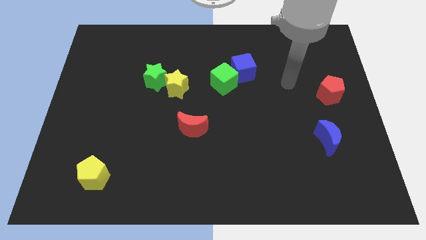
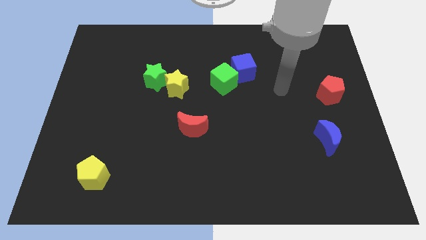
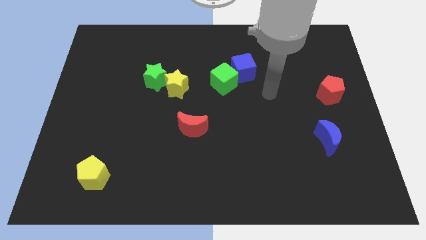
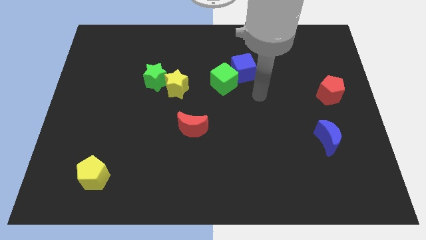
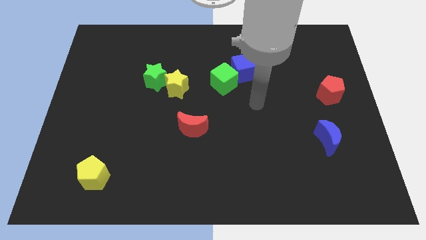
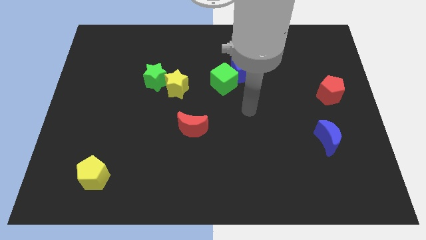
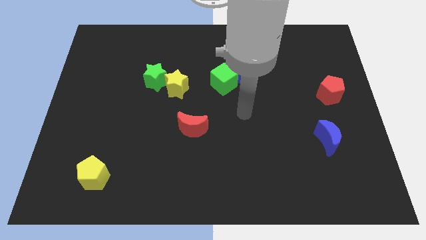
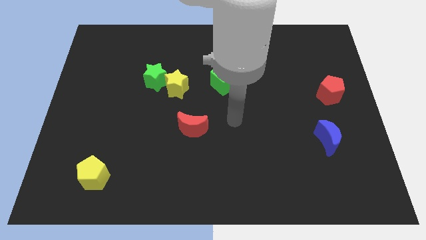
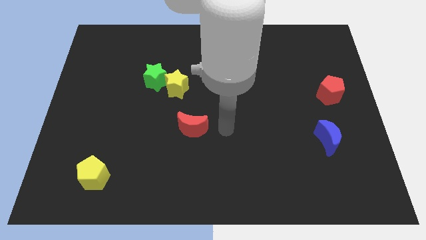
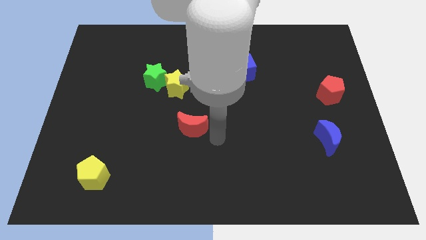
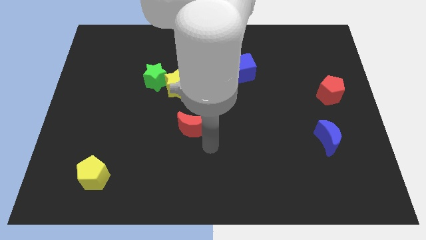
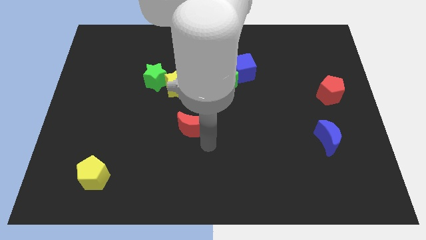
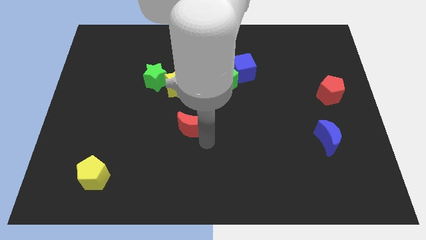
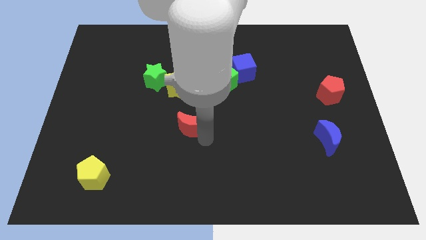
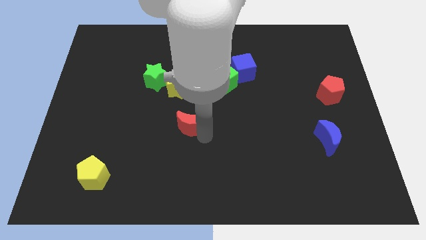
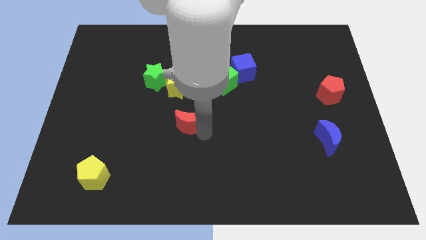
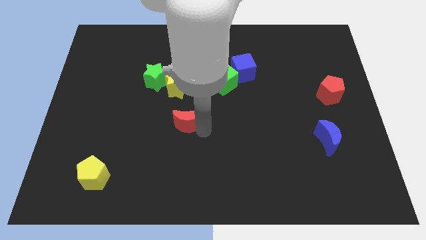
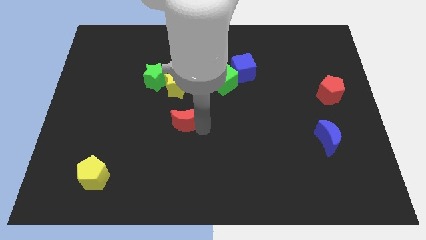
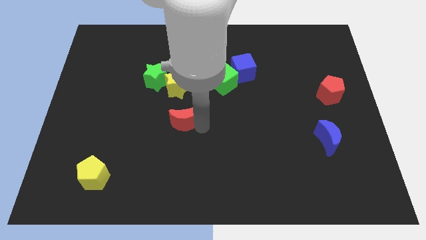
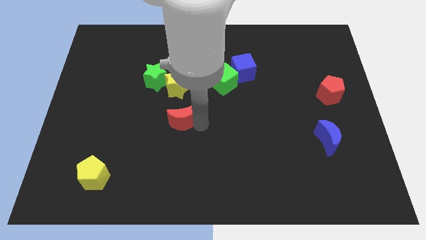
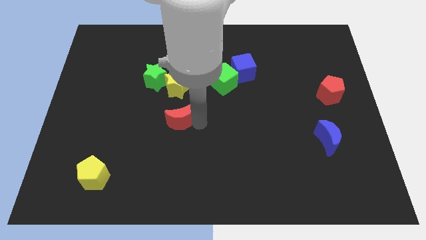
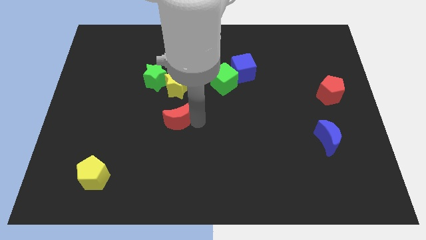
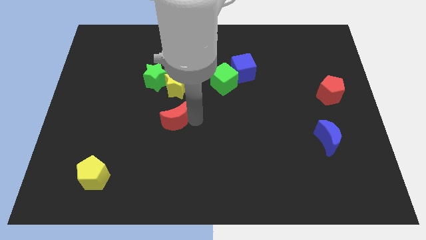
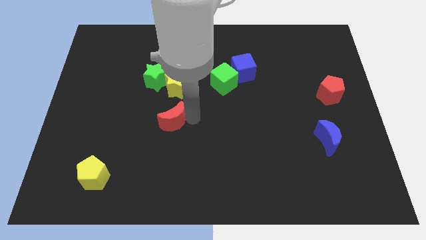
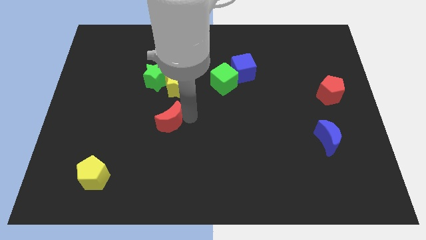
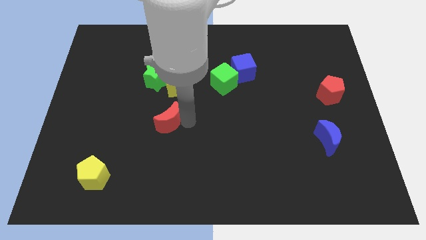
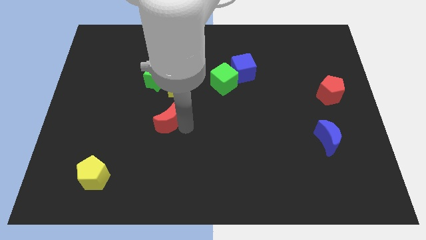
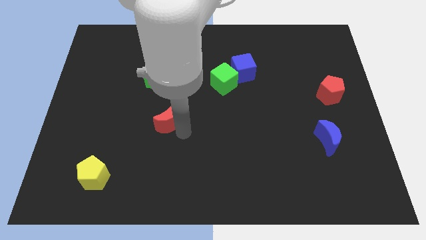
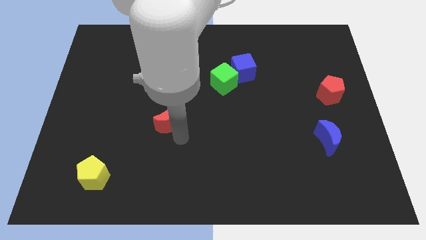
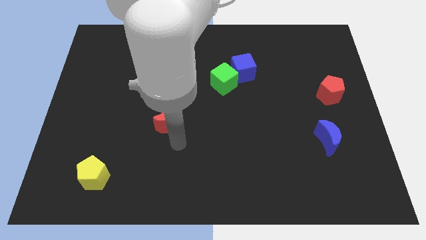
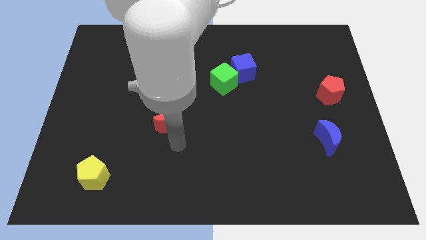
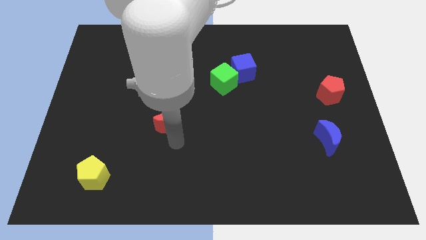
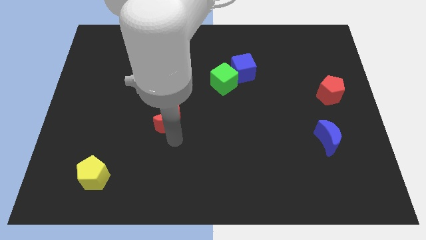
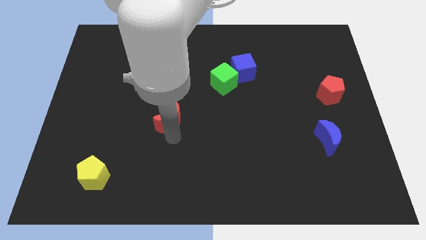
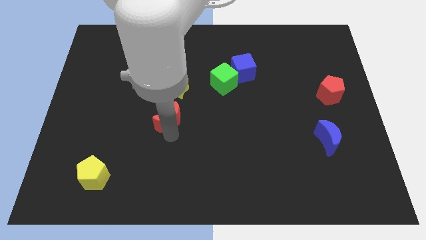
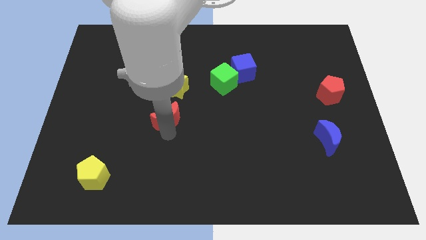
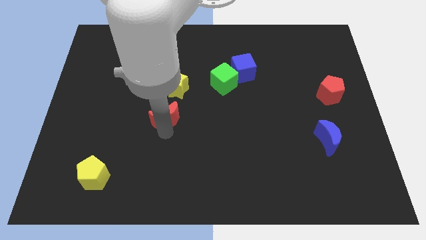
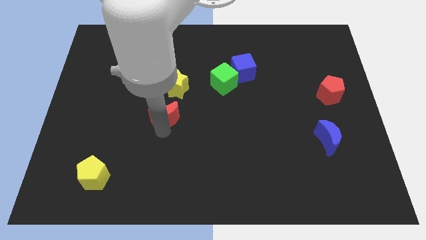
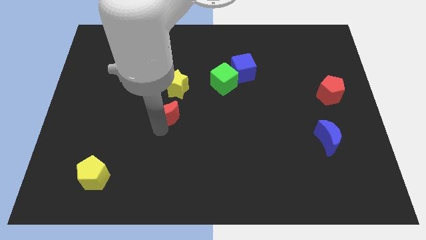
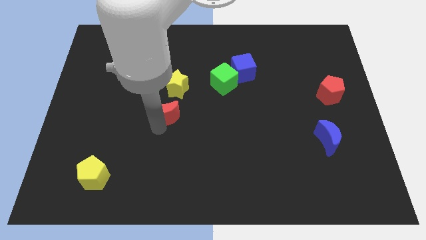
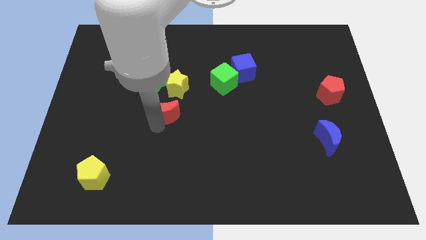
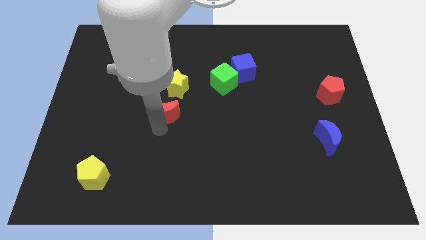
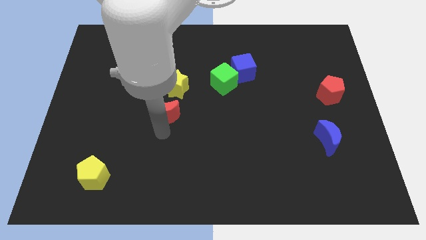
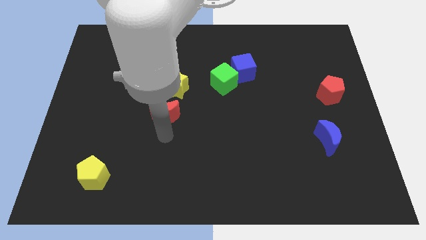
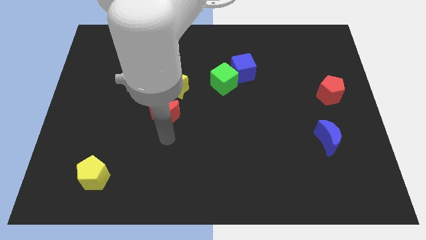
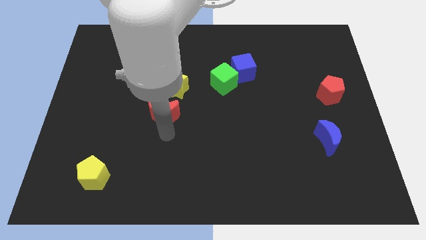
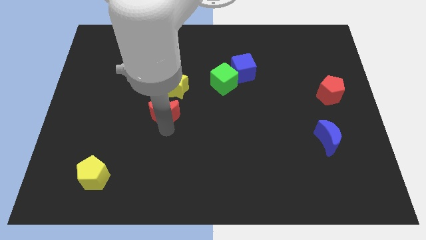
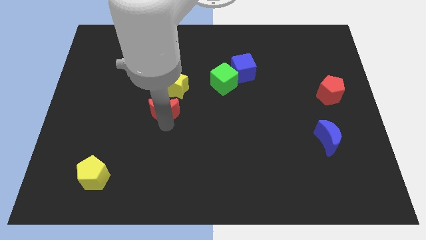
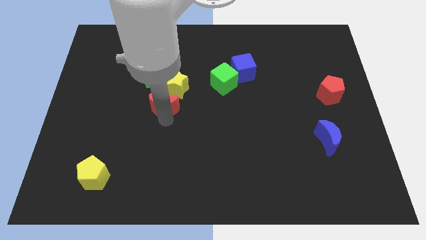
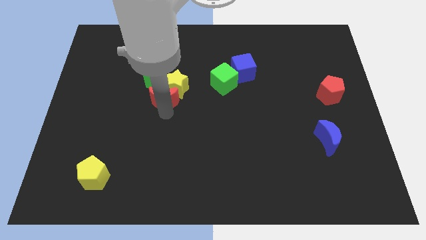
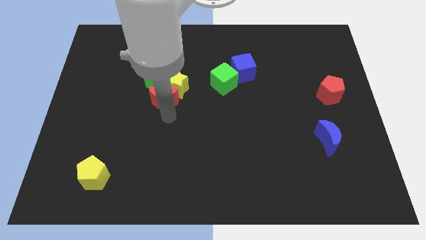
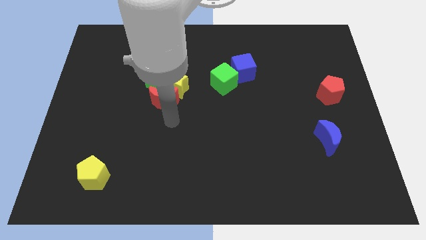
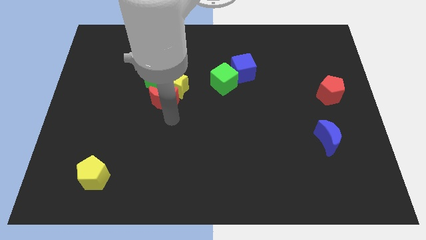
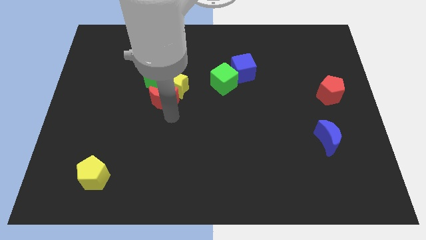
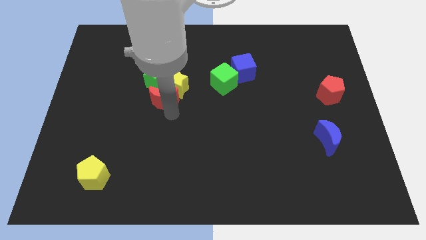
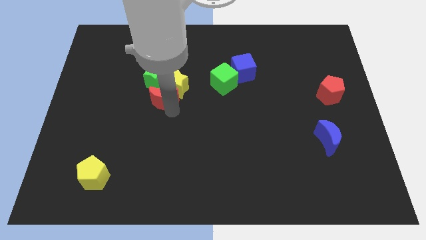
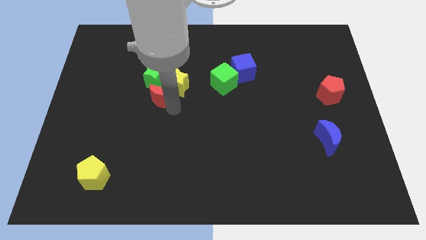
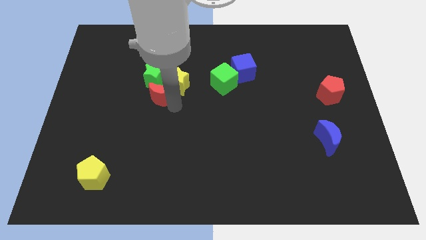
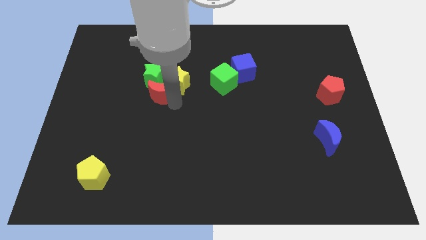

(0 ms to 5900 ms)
push the red moon close to the green star

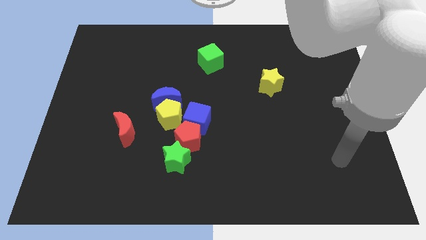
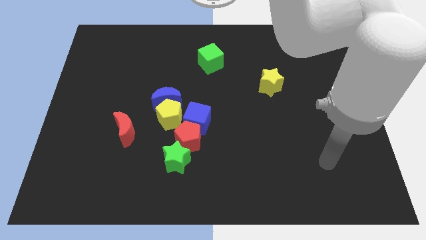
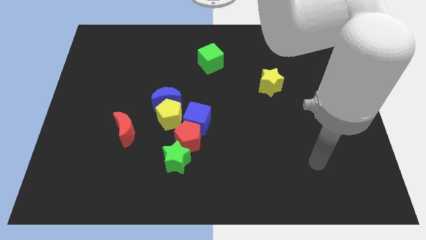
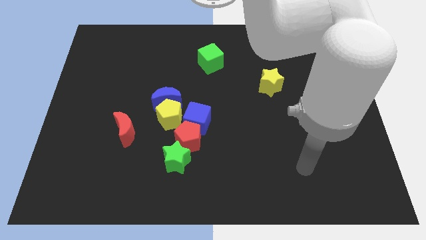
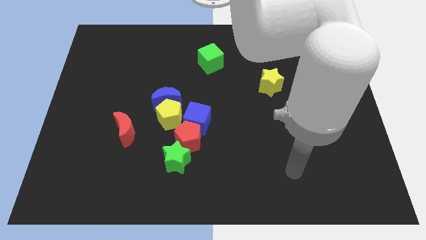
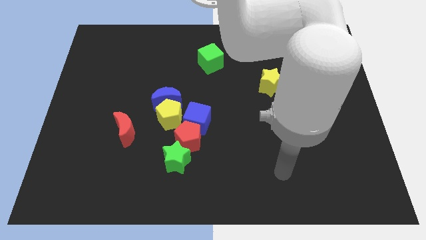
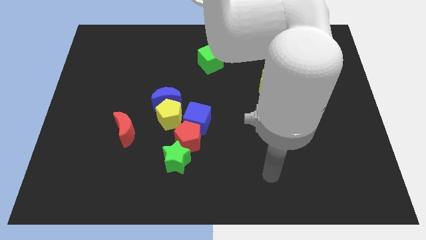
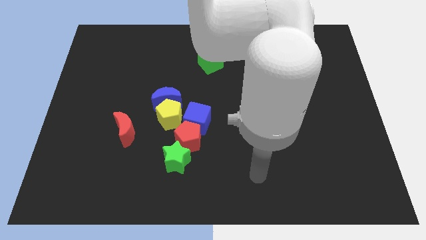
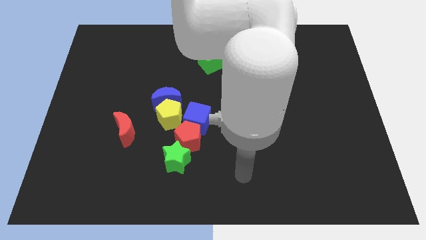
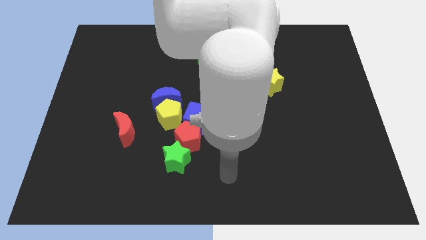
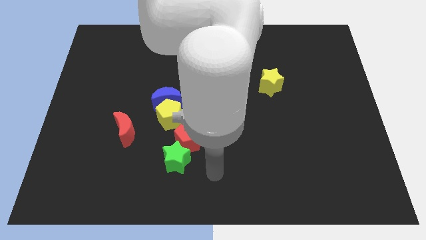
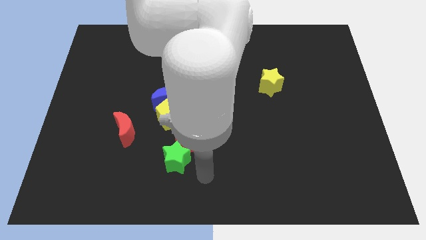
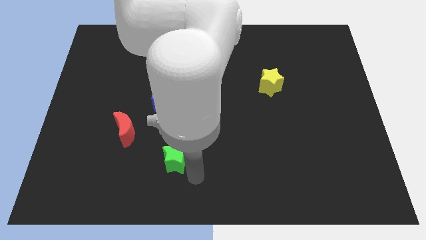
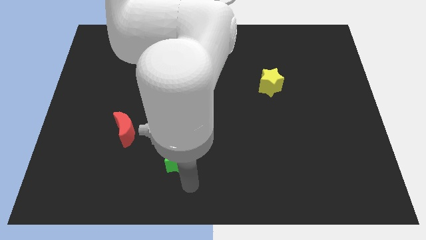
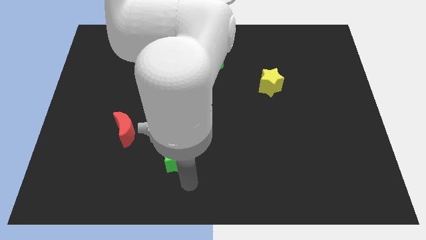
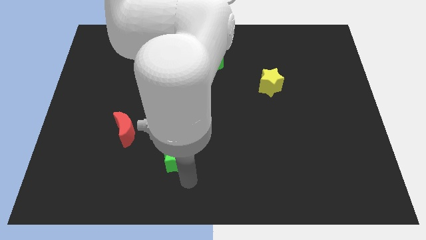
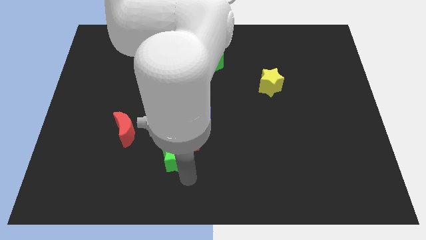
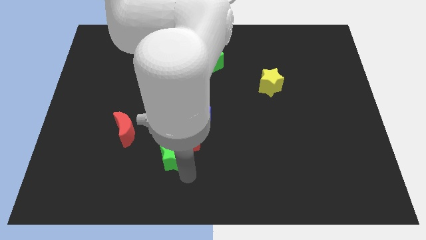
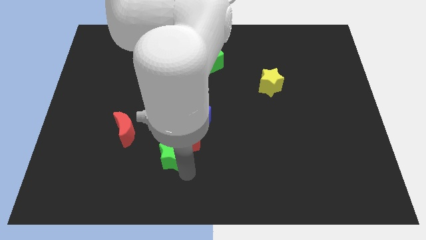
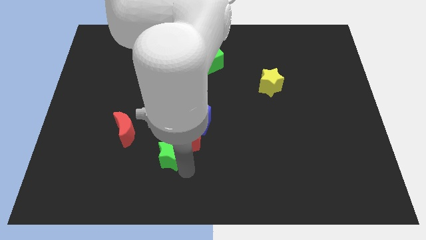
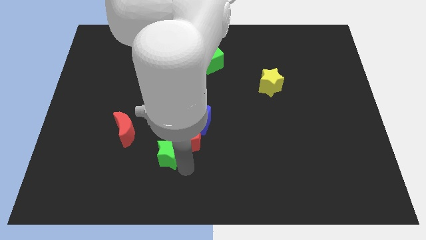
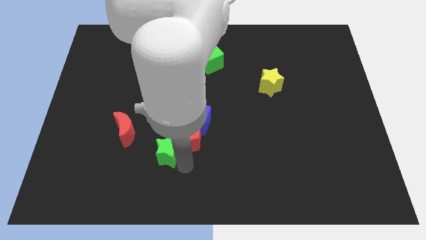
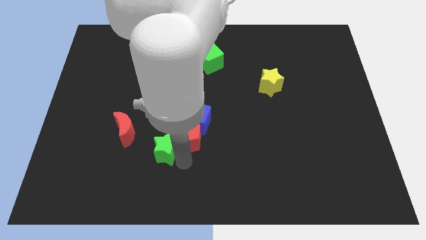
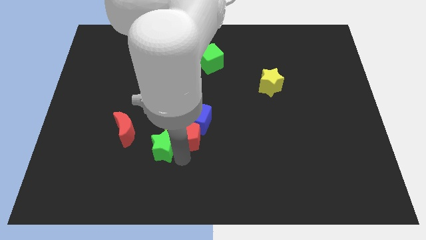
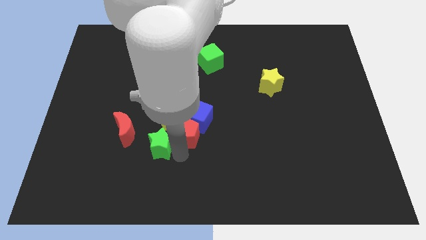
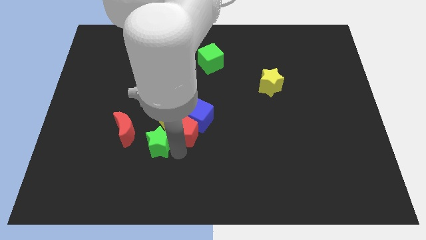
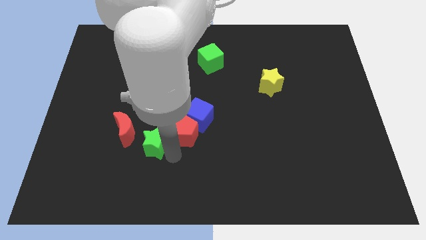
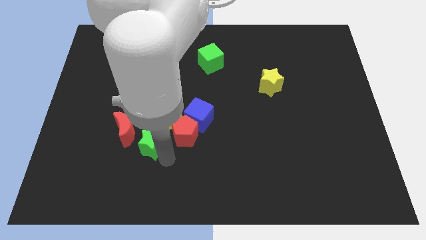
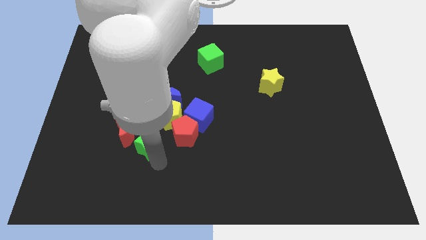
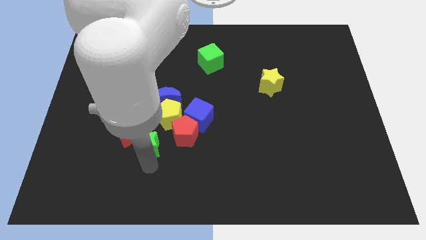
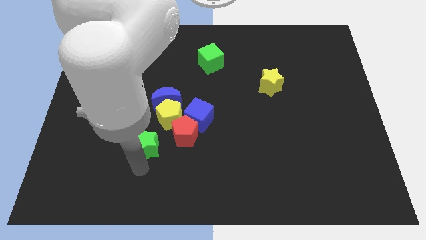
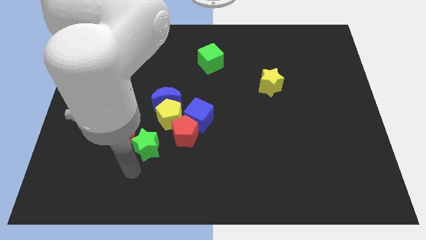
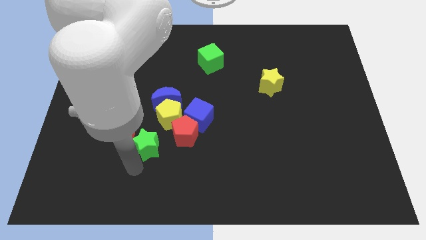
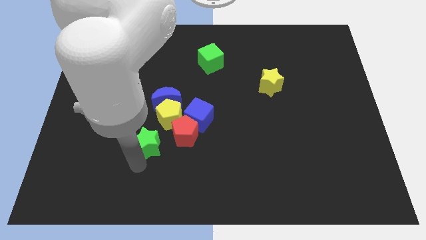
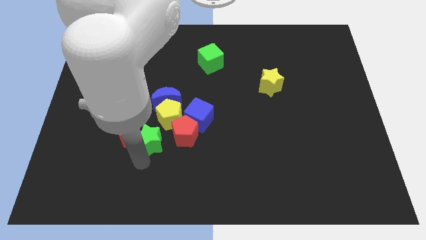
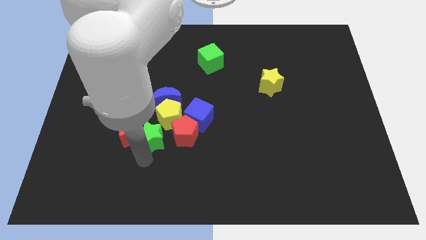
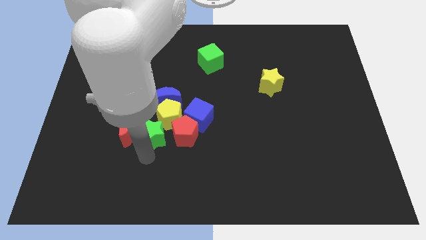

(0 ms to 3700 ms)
slide the green star to the yellow pentagon
